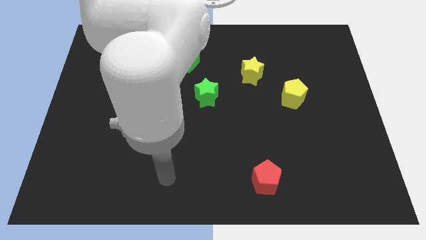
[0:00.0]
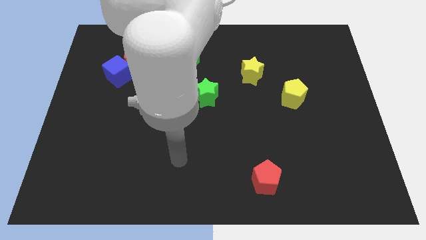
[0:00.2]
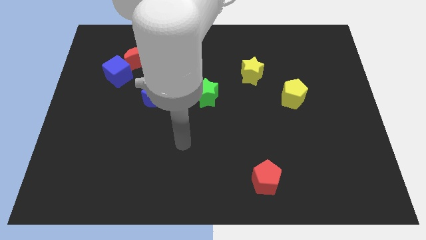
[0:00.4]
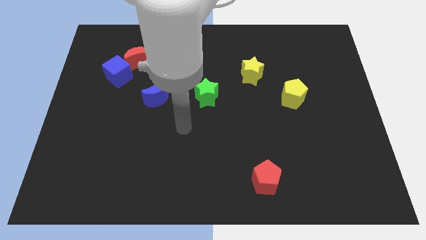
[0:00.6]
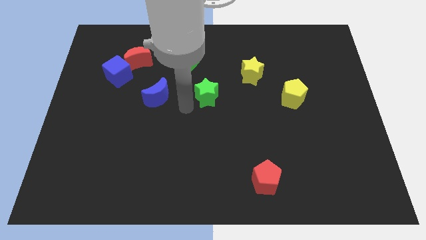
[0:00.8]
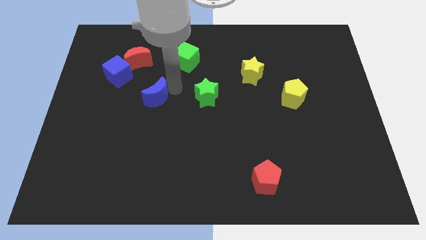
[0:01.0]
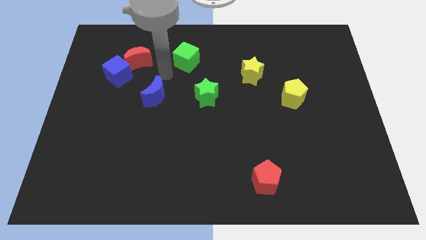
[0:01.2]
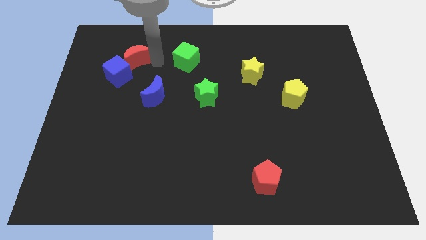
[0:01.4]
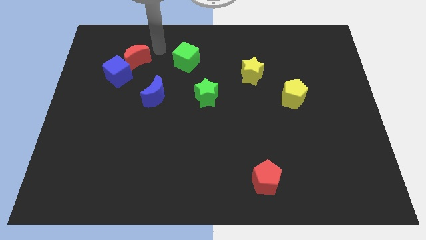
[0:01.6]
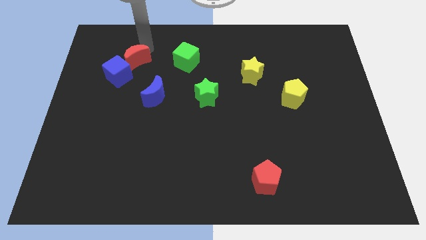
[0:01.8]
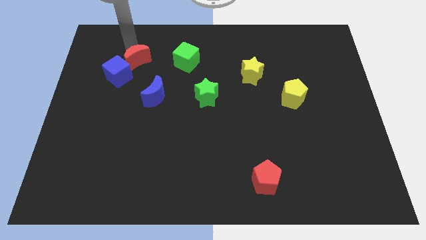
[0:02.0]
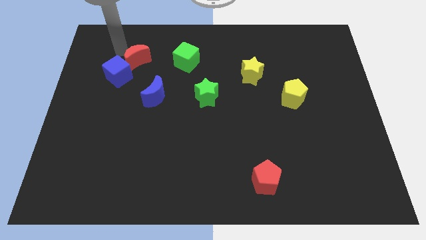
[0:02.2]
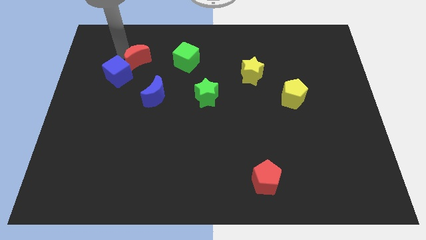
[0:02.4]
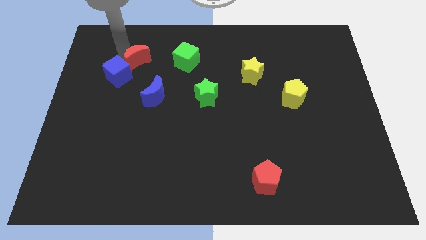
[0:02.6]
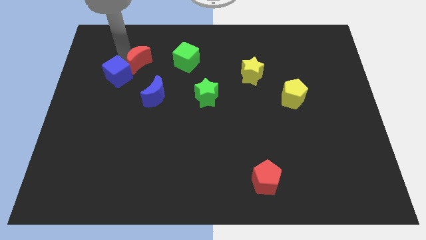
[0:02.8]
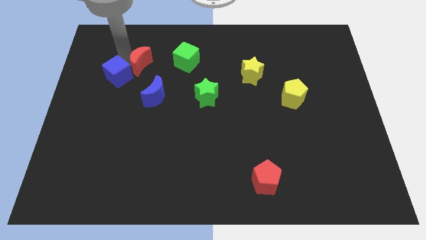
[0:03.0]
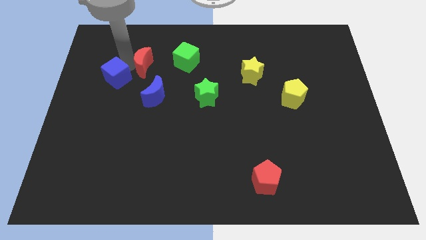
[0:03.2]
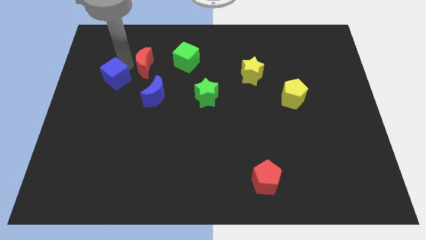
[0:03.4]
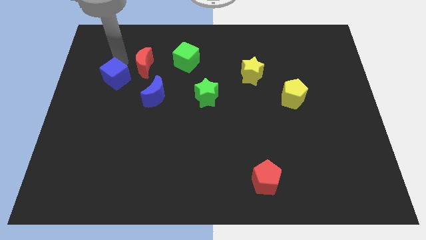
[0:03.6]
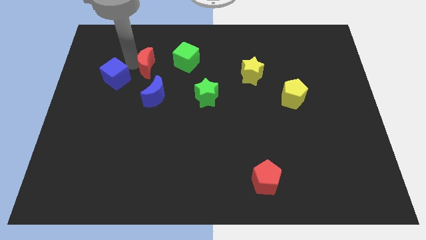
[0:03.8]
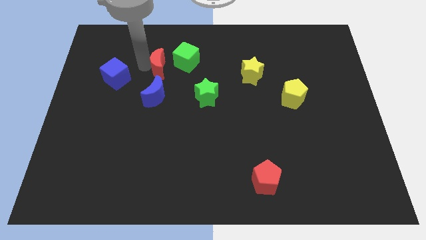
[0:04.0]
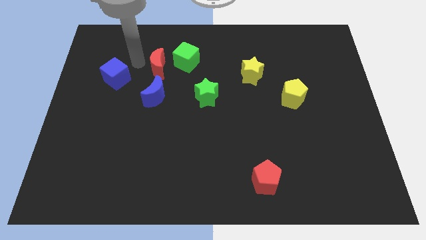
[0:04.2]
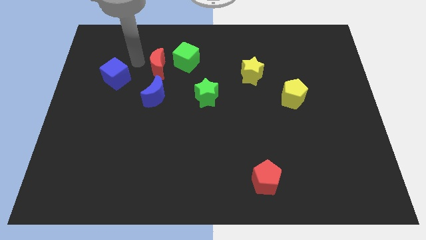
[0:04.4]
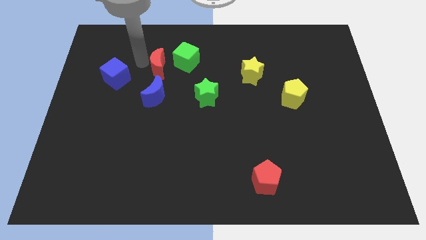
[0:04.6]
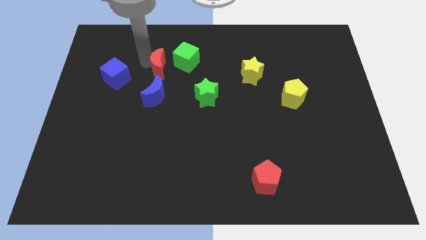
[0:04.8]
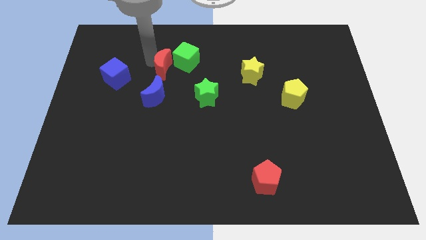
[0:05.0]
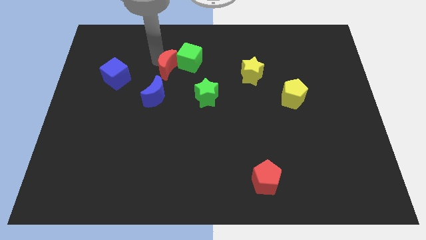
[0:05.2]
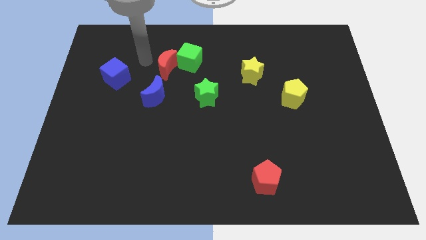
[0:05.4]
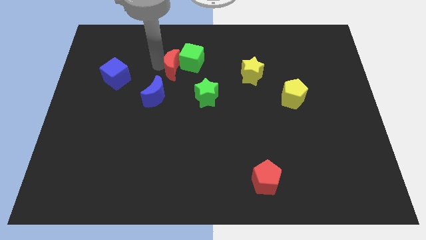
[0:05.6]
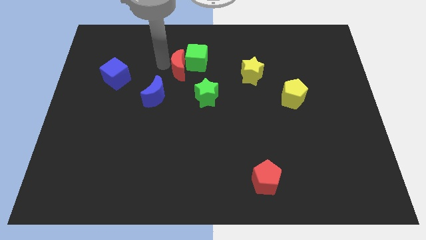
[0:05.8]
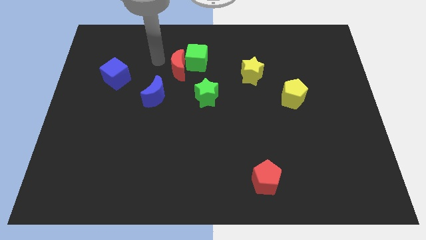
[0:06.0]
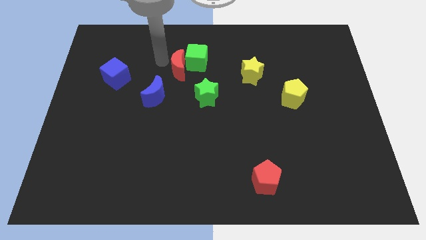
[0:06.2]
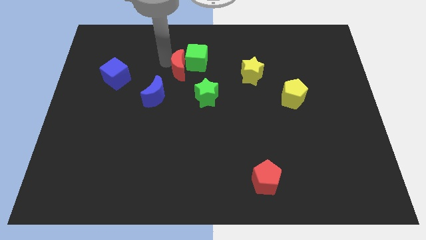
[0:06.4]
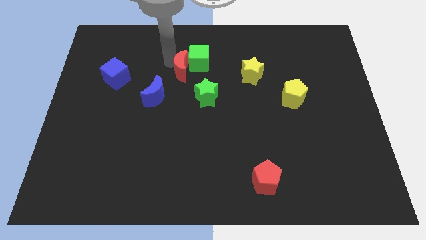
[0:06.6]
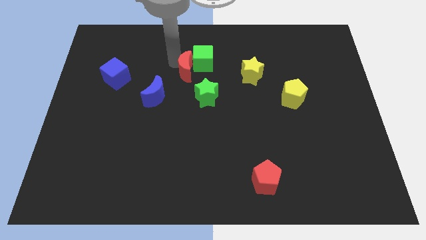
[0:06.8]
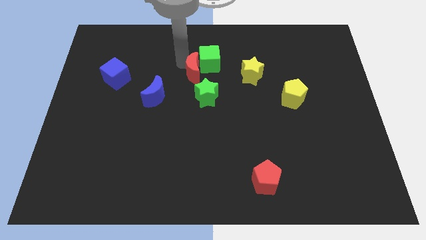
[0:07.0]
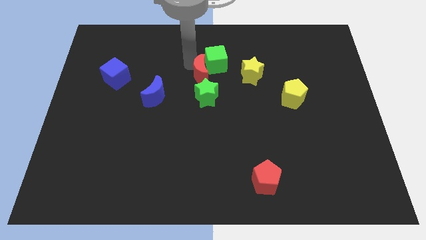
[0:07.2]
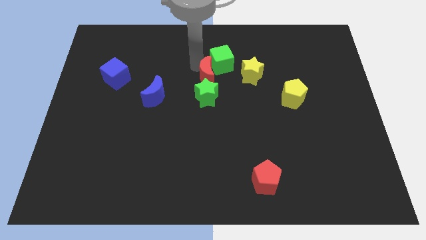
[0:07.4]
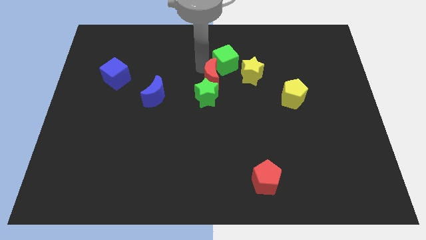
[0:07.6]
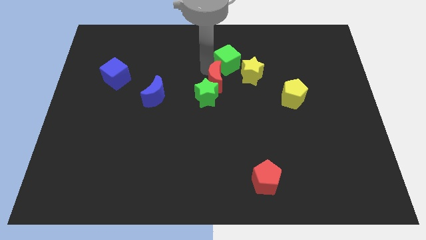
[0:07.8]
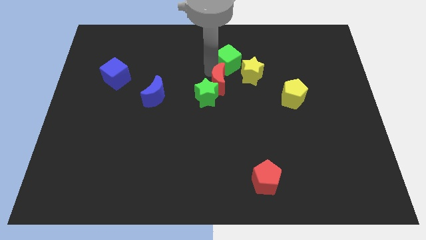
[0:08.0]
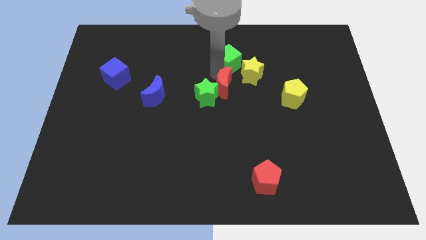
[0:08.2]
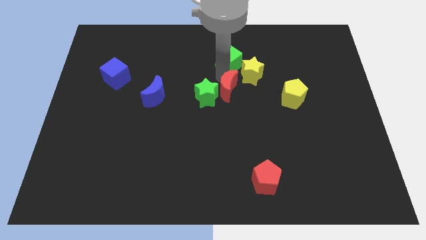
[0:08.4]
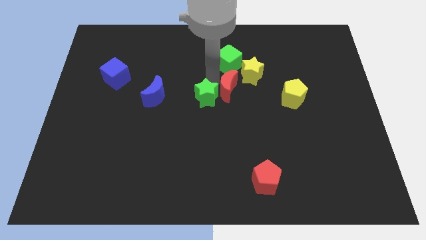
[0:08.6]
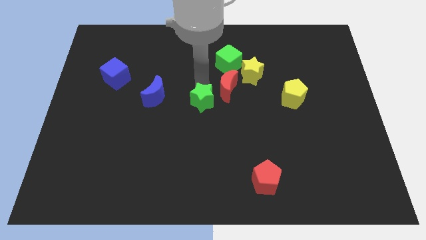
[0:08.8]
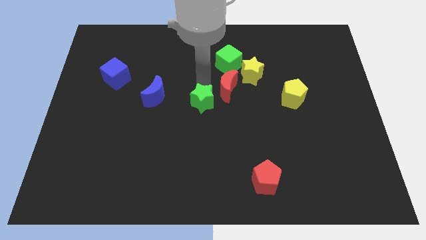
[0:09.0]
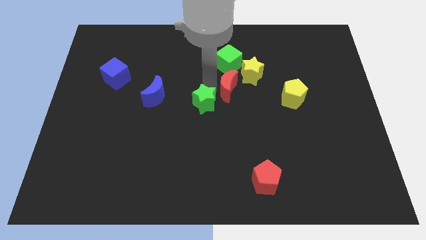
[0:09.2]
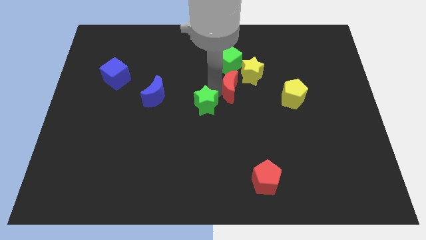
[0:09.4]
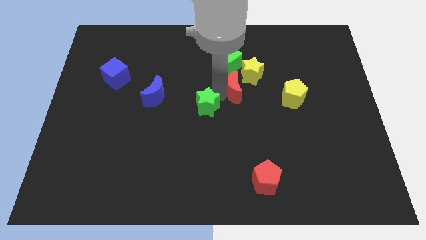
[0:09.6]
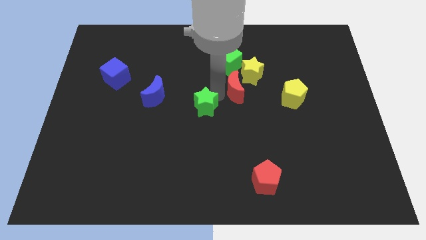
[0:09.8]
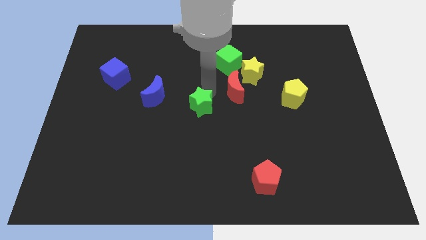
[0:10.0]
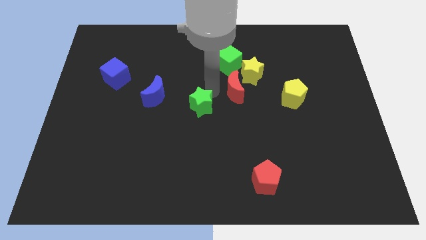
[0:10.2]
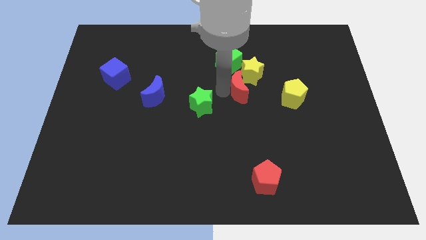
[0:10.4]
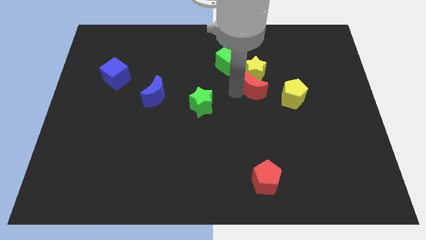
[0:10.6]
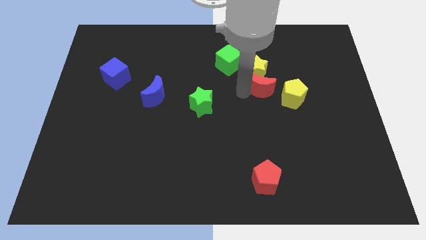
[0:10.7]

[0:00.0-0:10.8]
put the red moon to the top left side of the yellow pentagon

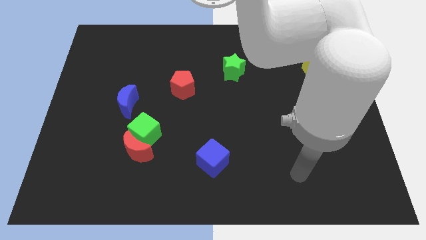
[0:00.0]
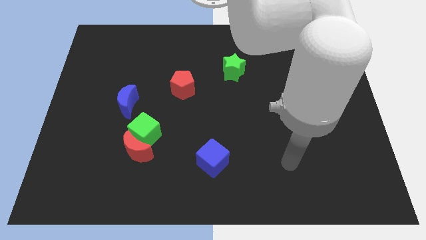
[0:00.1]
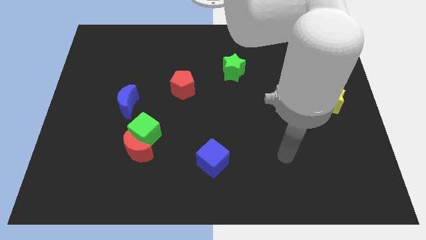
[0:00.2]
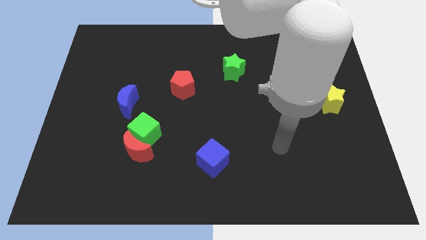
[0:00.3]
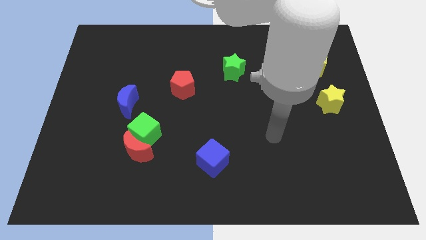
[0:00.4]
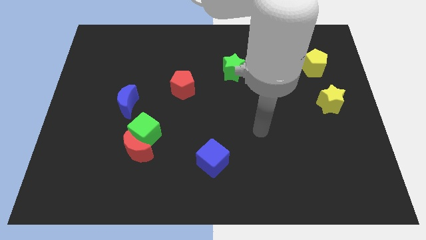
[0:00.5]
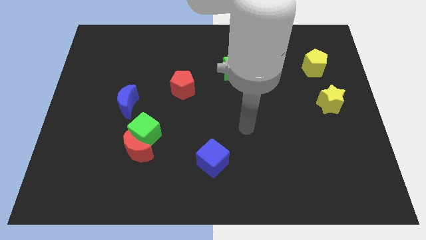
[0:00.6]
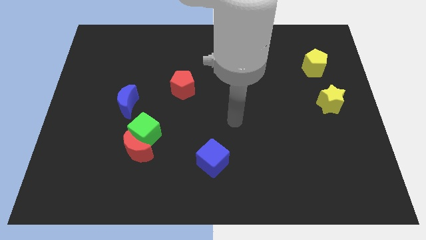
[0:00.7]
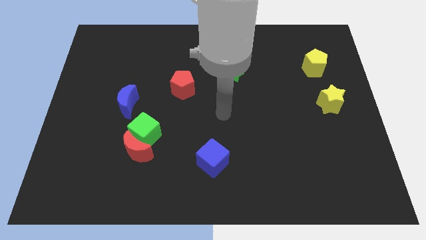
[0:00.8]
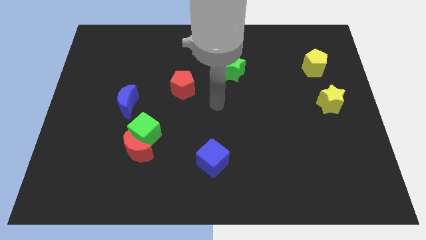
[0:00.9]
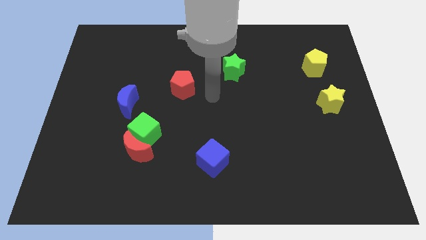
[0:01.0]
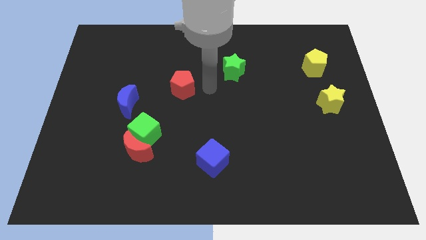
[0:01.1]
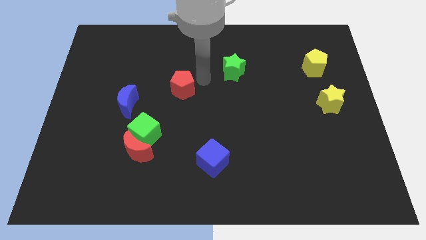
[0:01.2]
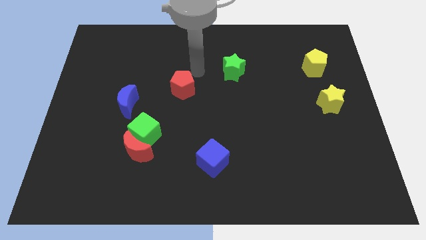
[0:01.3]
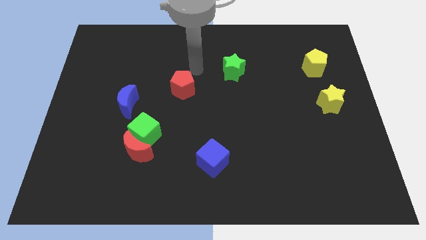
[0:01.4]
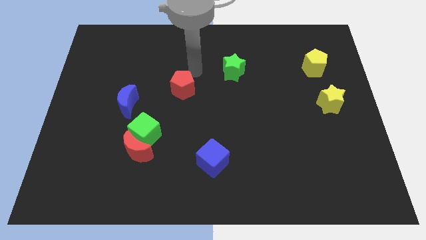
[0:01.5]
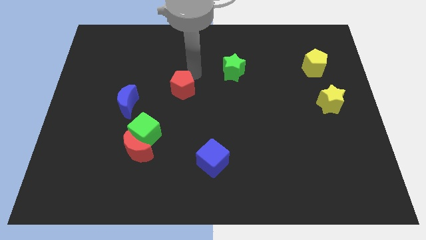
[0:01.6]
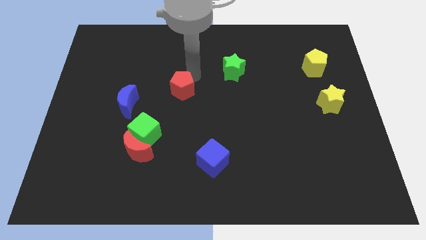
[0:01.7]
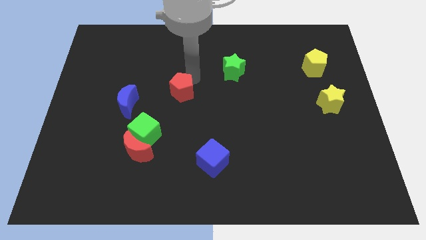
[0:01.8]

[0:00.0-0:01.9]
move the red pentagon to the right of the blue moon
